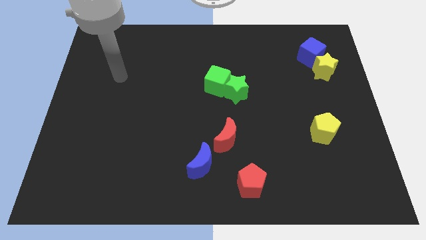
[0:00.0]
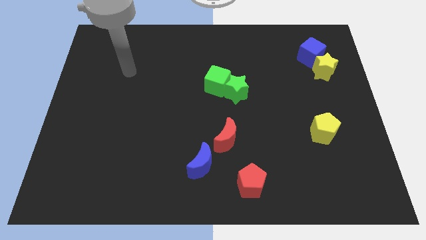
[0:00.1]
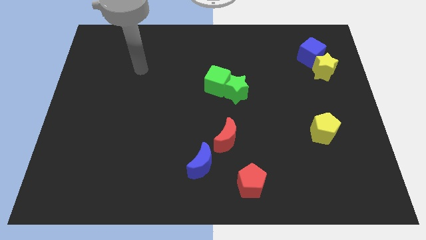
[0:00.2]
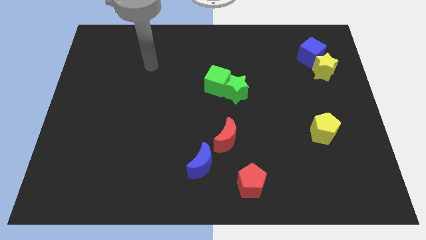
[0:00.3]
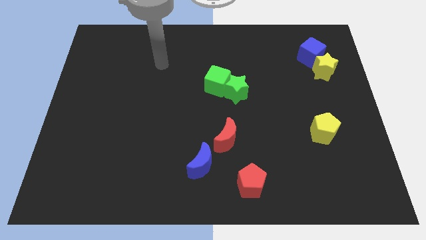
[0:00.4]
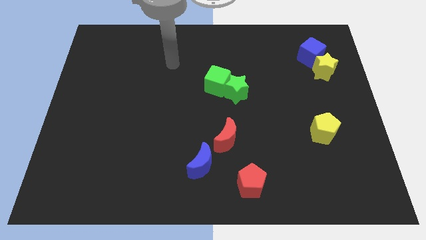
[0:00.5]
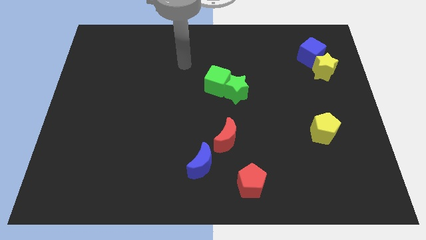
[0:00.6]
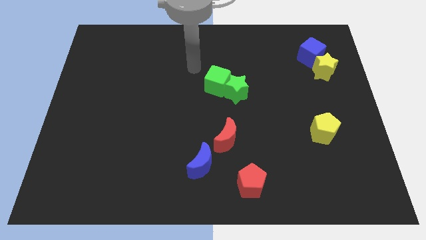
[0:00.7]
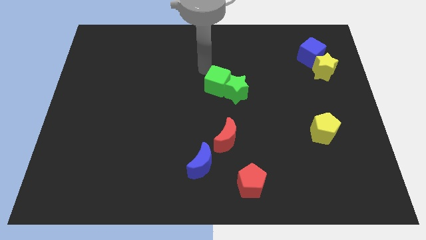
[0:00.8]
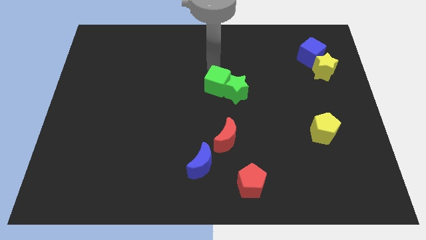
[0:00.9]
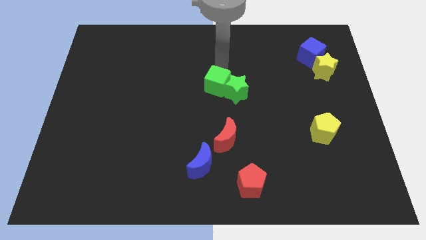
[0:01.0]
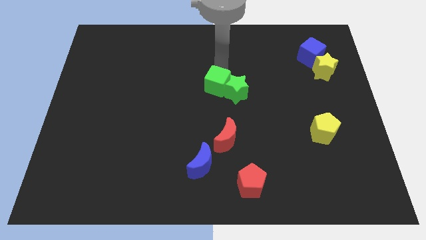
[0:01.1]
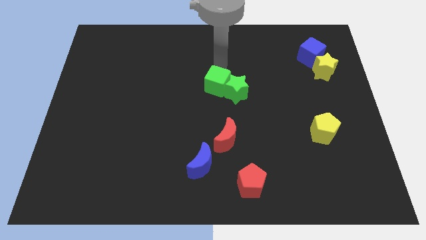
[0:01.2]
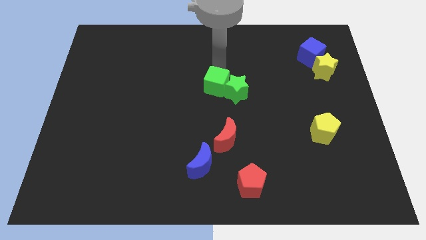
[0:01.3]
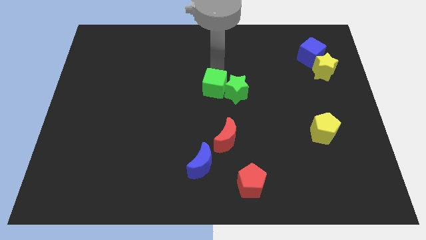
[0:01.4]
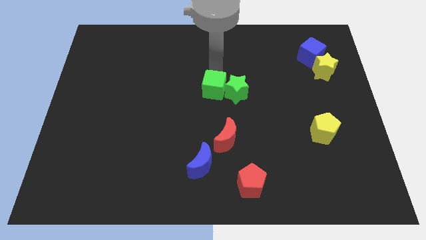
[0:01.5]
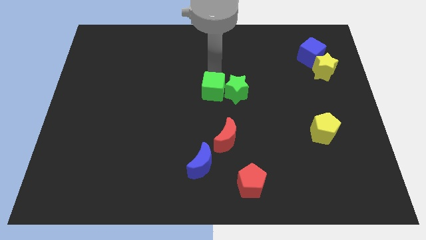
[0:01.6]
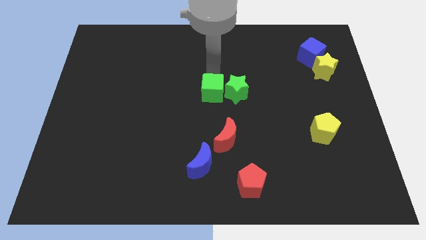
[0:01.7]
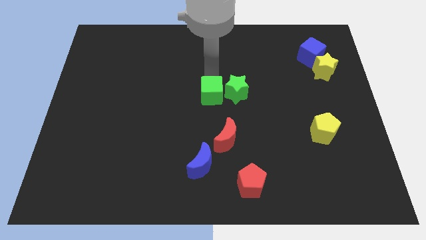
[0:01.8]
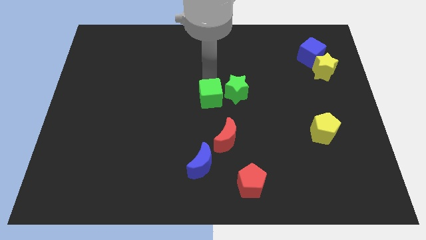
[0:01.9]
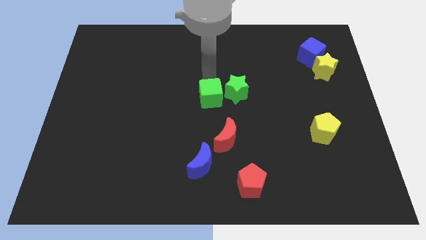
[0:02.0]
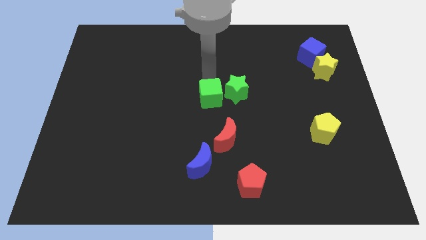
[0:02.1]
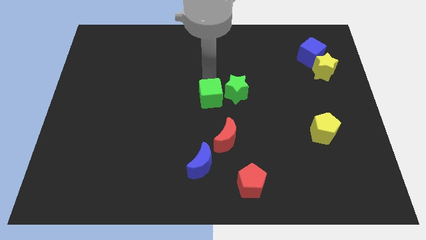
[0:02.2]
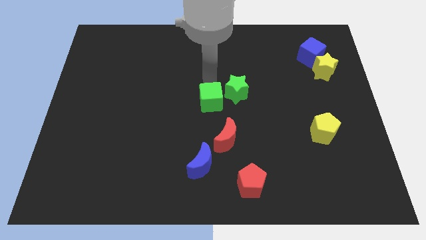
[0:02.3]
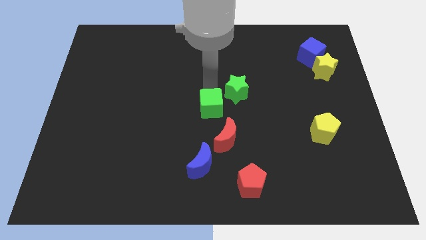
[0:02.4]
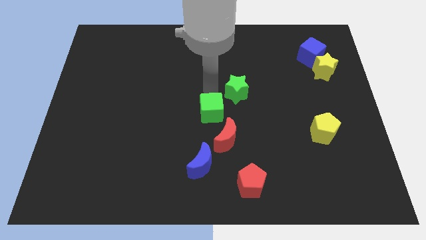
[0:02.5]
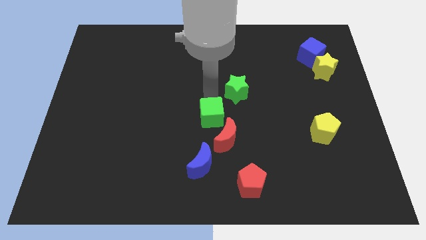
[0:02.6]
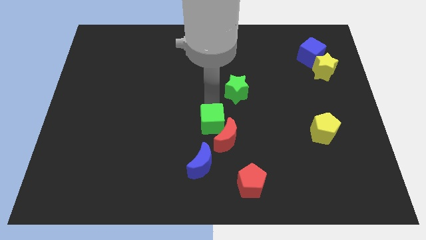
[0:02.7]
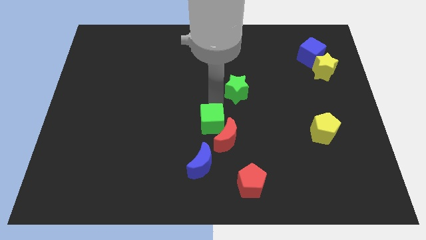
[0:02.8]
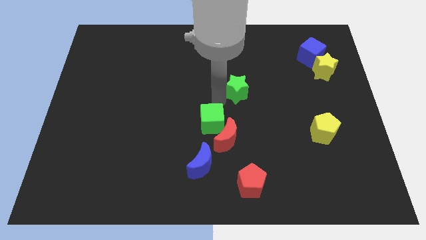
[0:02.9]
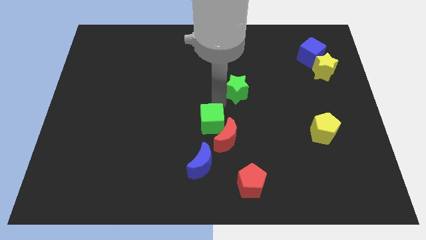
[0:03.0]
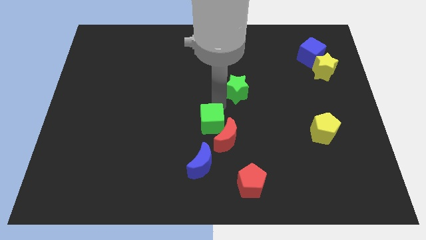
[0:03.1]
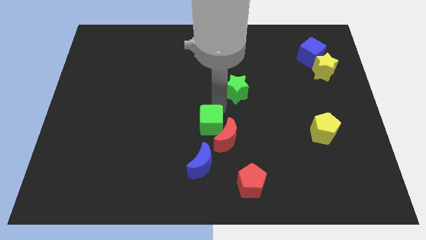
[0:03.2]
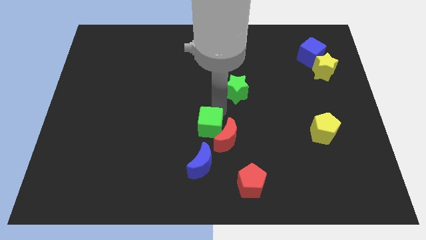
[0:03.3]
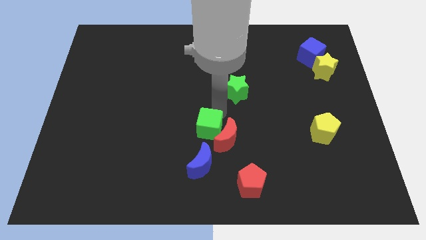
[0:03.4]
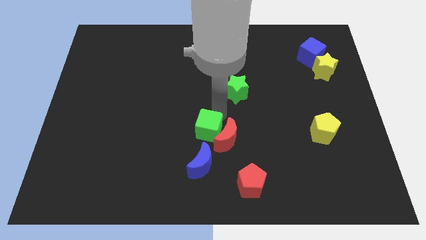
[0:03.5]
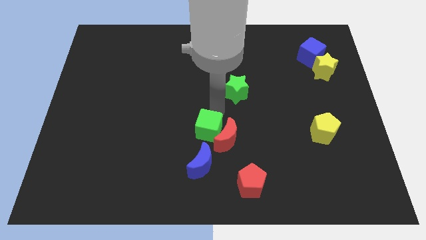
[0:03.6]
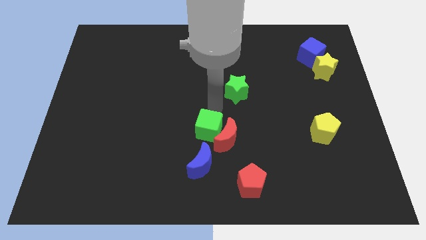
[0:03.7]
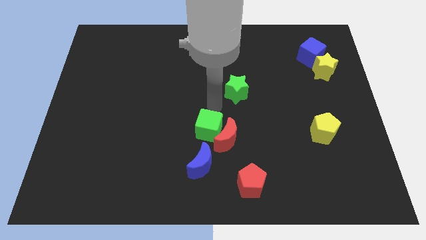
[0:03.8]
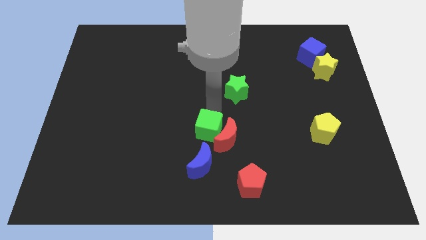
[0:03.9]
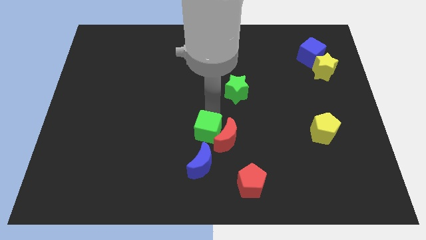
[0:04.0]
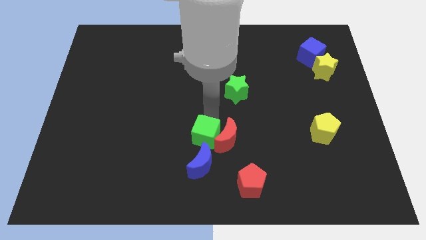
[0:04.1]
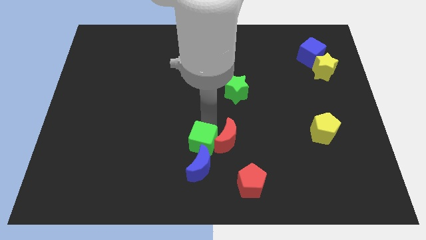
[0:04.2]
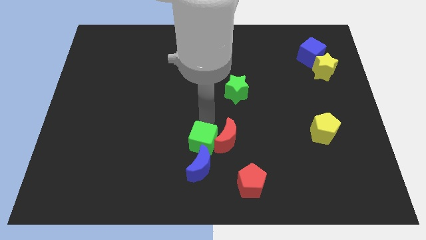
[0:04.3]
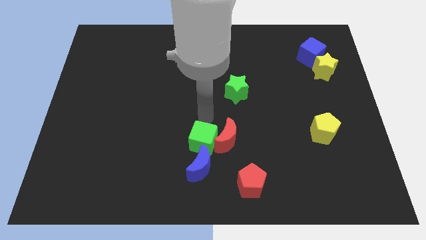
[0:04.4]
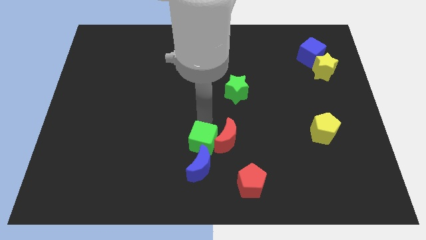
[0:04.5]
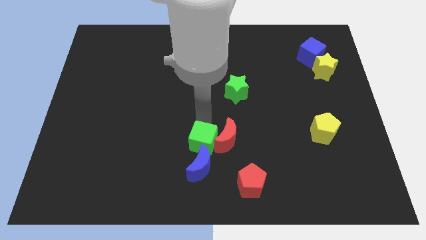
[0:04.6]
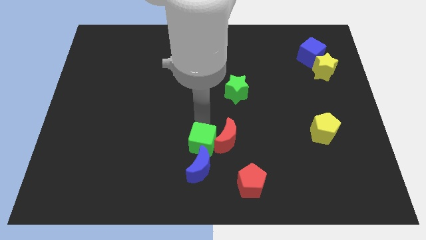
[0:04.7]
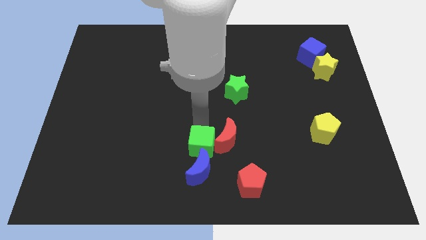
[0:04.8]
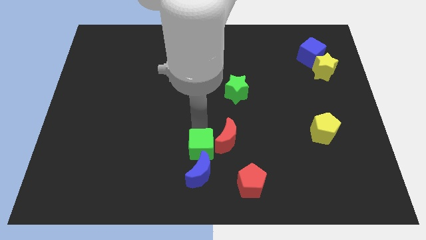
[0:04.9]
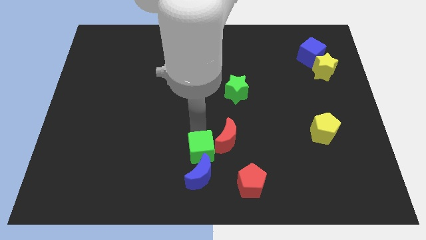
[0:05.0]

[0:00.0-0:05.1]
push the green cube to the blue moon

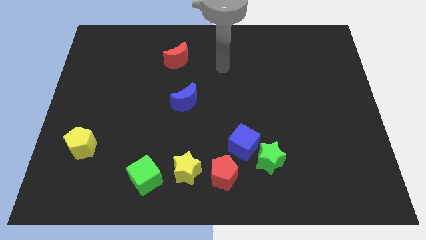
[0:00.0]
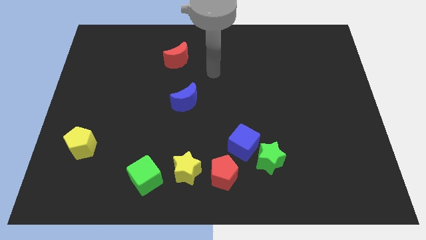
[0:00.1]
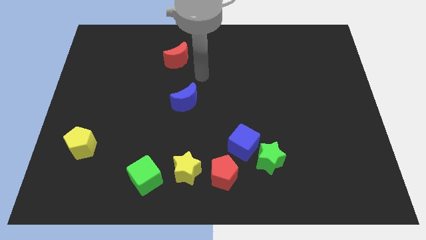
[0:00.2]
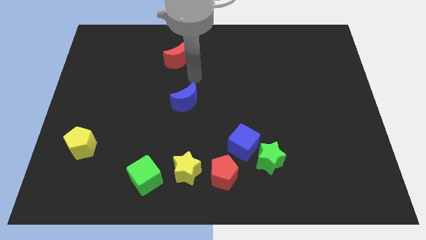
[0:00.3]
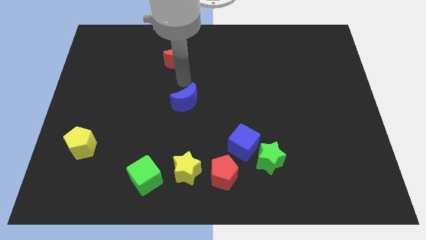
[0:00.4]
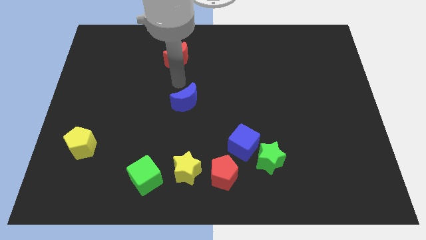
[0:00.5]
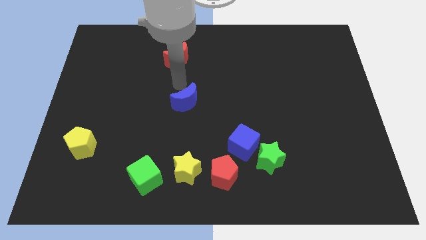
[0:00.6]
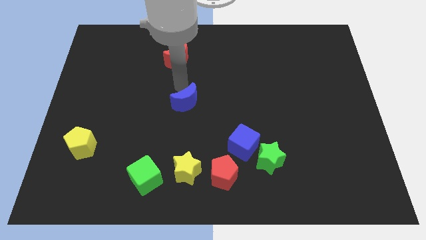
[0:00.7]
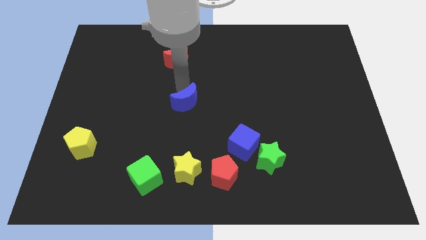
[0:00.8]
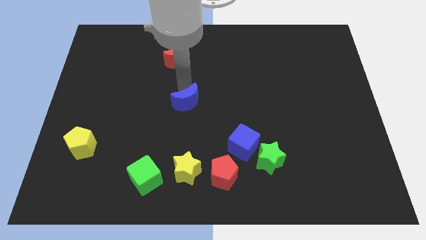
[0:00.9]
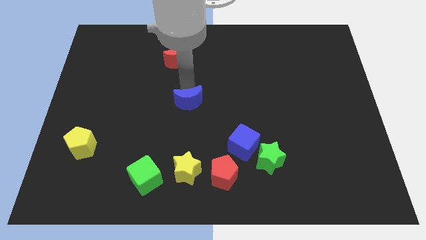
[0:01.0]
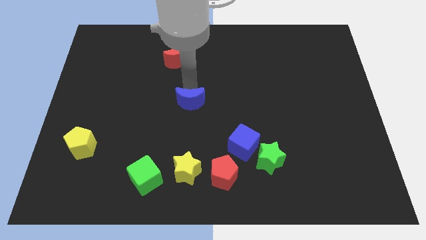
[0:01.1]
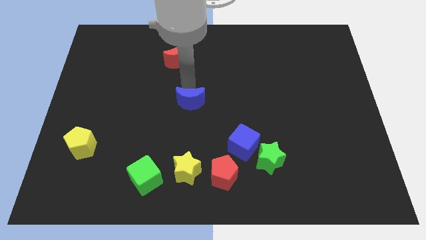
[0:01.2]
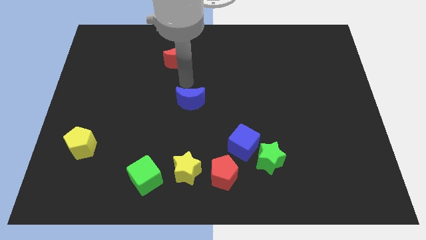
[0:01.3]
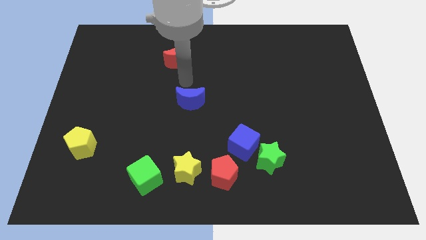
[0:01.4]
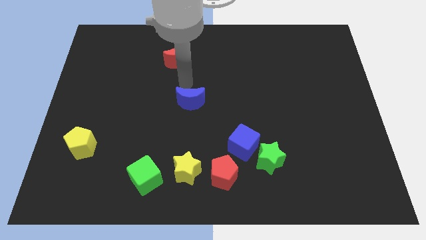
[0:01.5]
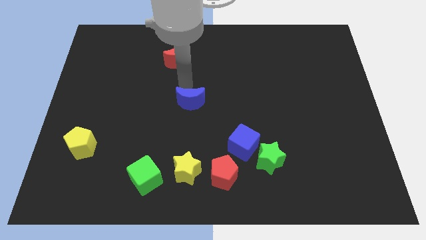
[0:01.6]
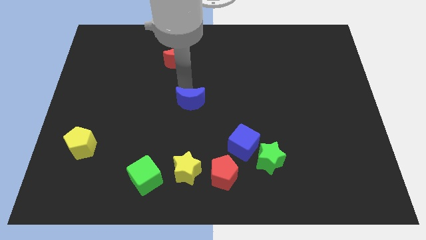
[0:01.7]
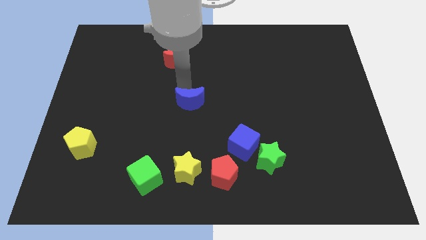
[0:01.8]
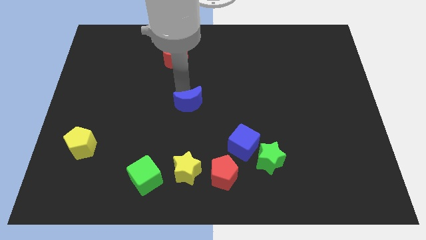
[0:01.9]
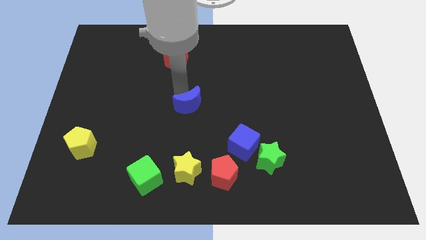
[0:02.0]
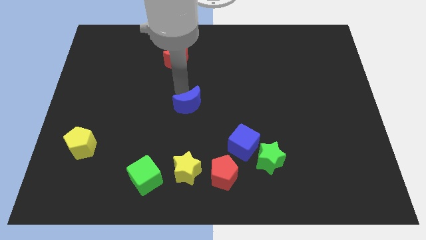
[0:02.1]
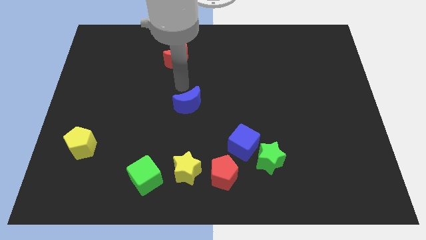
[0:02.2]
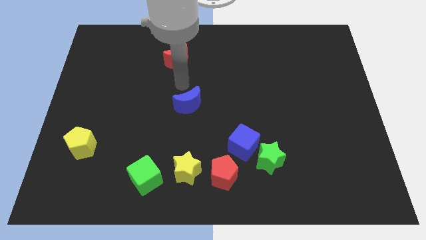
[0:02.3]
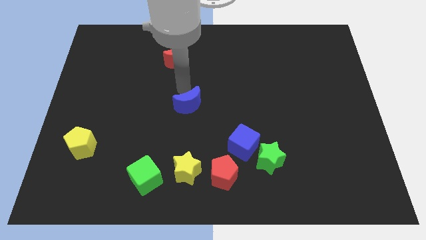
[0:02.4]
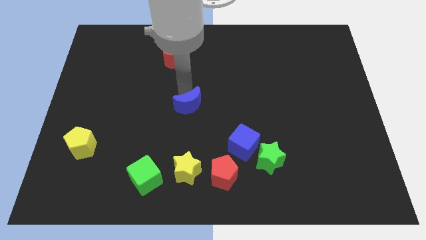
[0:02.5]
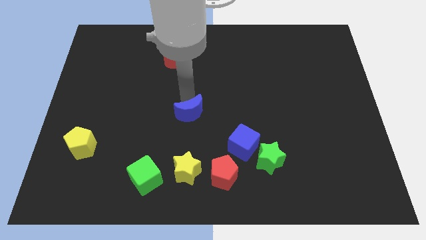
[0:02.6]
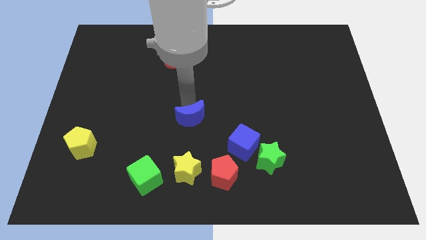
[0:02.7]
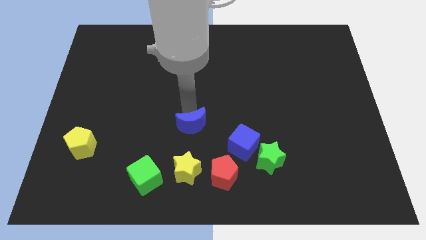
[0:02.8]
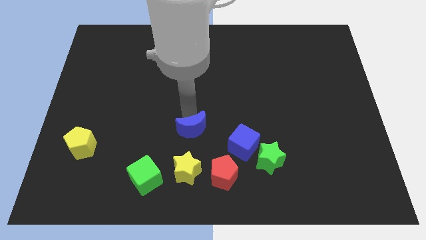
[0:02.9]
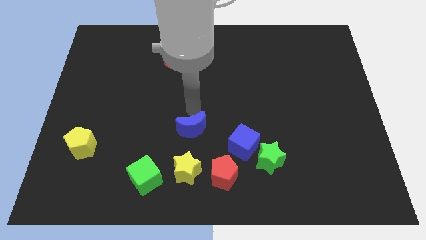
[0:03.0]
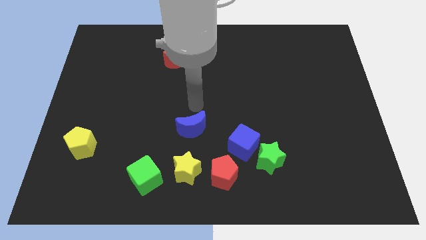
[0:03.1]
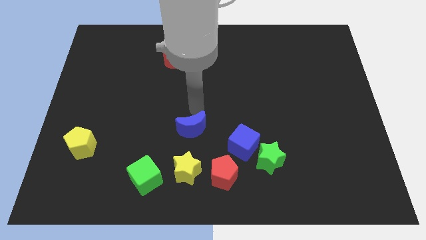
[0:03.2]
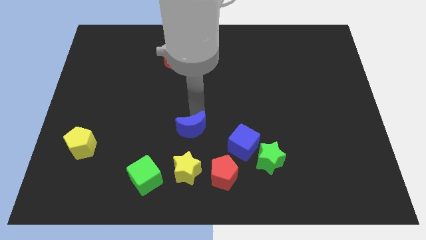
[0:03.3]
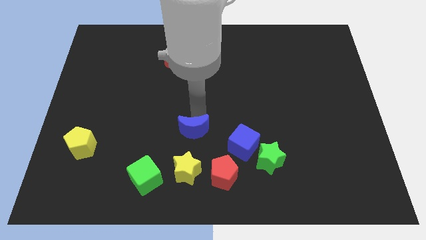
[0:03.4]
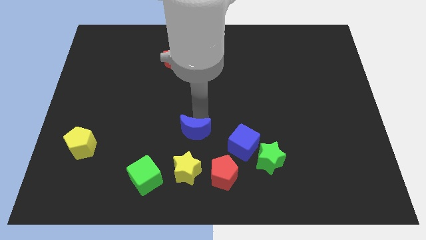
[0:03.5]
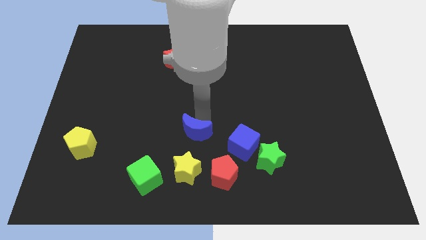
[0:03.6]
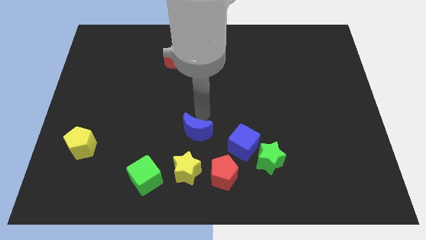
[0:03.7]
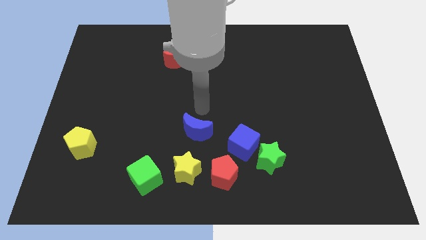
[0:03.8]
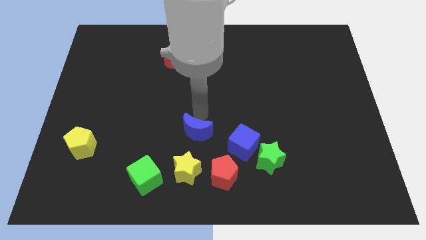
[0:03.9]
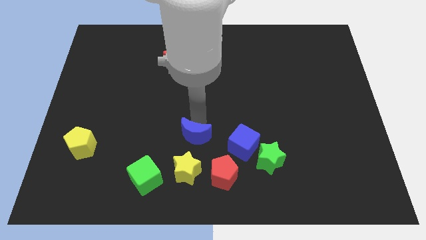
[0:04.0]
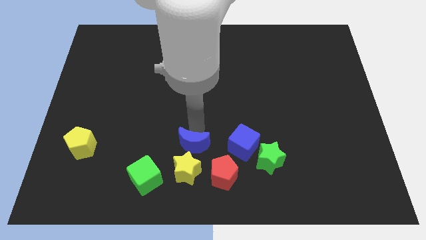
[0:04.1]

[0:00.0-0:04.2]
push the blue moon towards the yellow star
